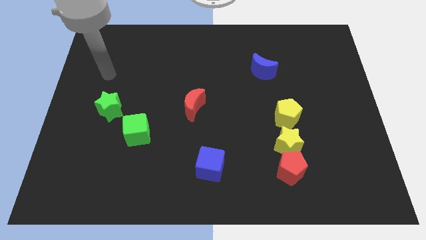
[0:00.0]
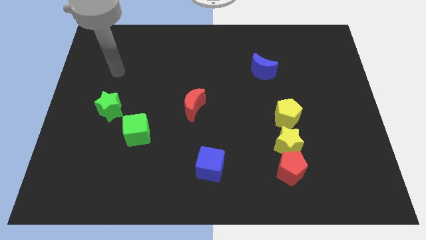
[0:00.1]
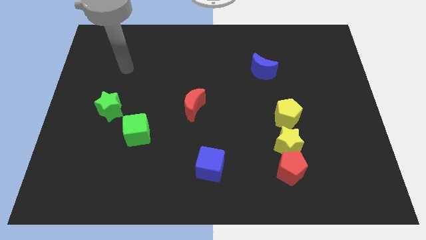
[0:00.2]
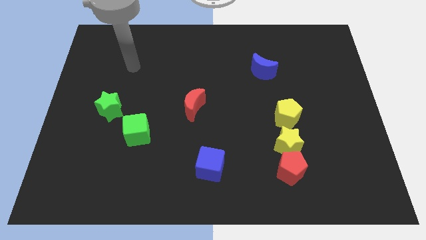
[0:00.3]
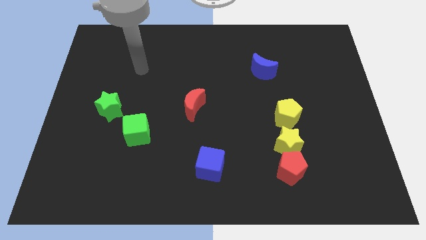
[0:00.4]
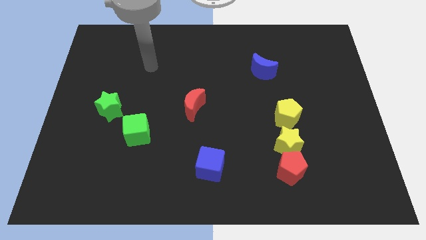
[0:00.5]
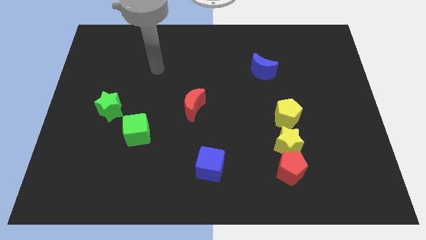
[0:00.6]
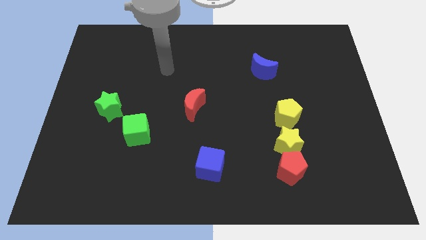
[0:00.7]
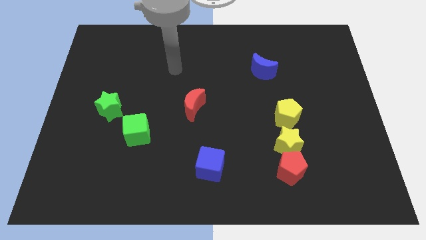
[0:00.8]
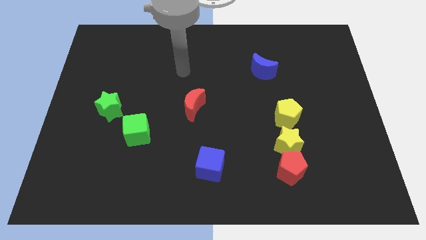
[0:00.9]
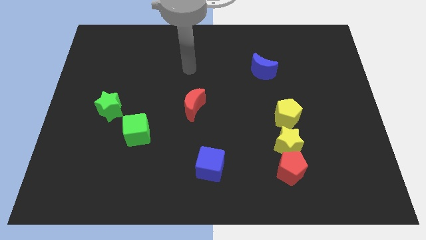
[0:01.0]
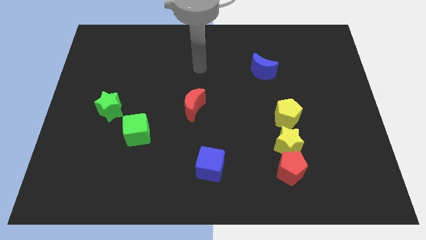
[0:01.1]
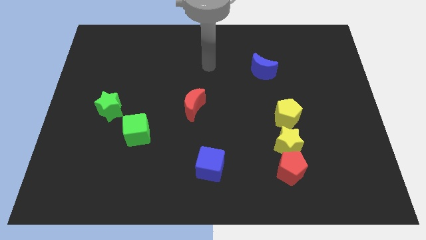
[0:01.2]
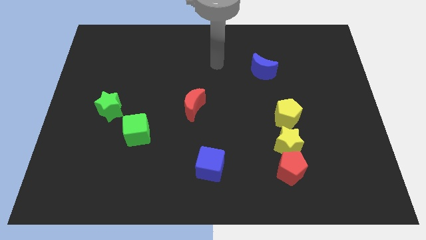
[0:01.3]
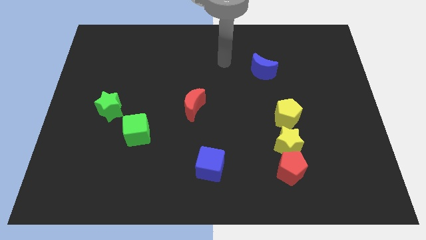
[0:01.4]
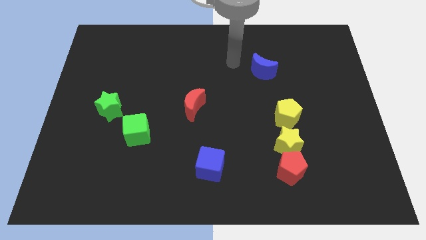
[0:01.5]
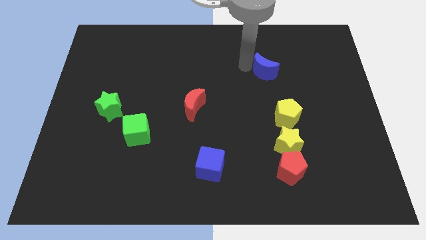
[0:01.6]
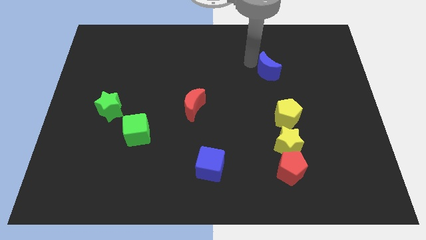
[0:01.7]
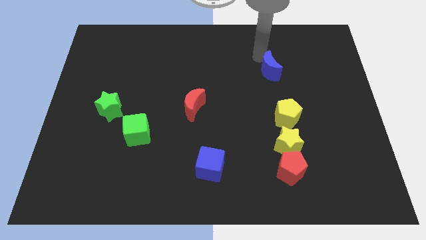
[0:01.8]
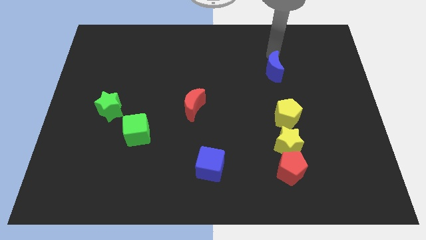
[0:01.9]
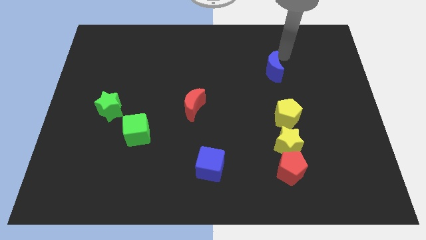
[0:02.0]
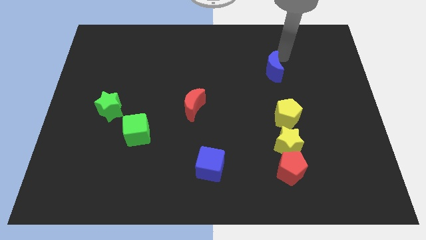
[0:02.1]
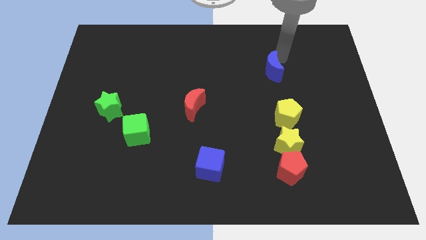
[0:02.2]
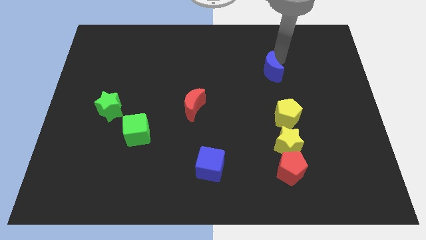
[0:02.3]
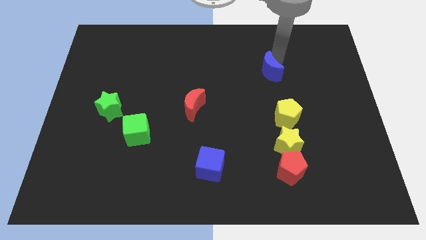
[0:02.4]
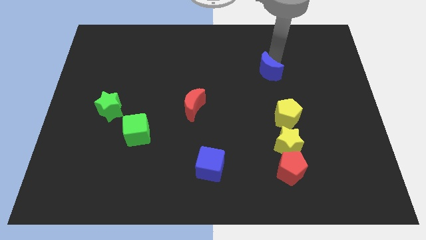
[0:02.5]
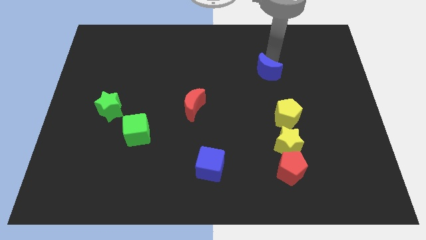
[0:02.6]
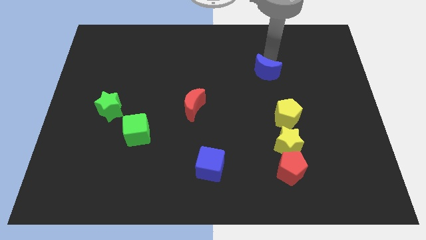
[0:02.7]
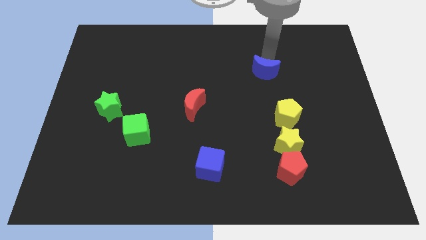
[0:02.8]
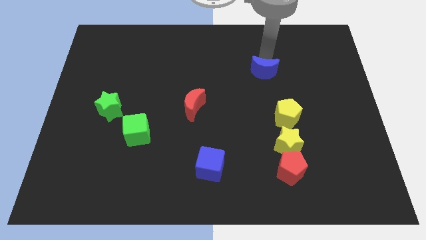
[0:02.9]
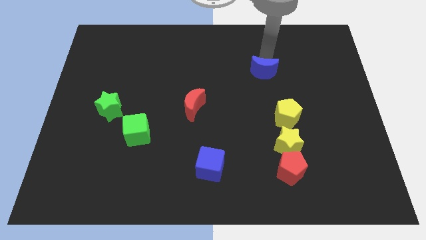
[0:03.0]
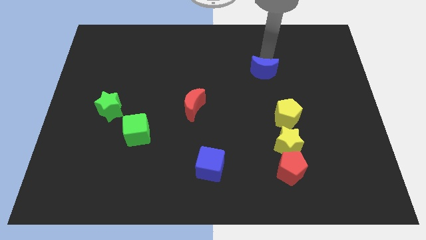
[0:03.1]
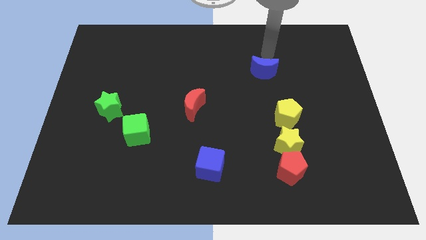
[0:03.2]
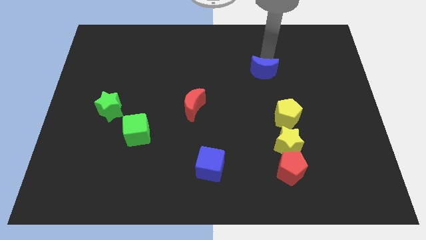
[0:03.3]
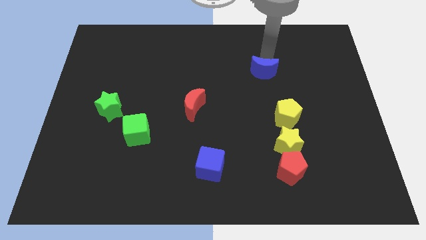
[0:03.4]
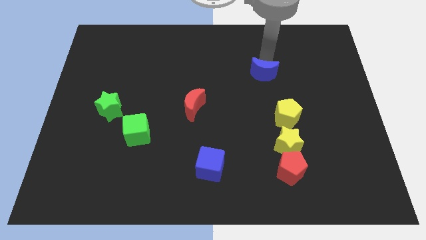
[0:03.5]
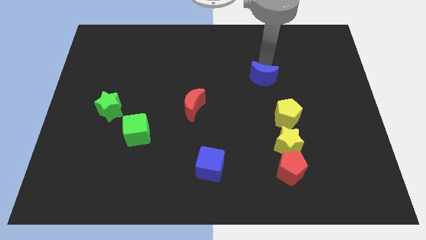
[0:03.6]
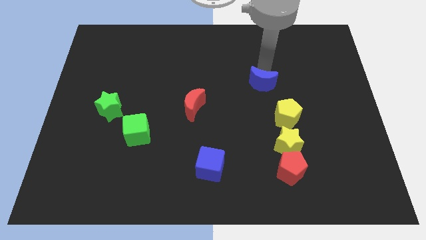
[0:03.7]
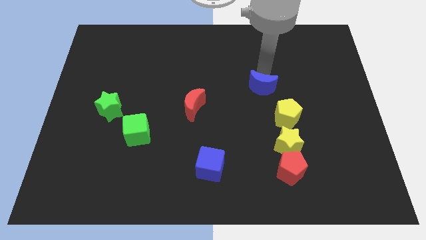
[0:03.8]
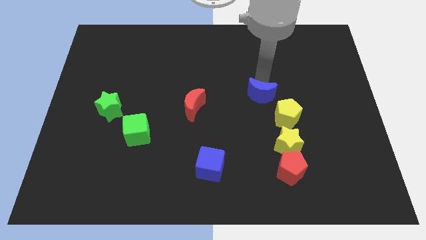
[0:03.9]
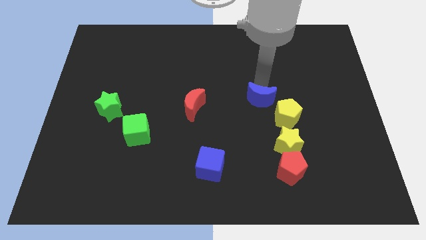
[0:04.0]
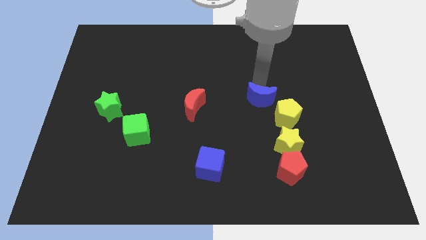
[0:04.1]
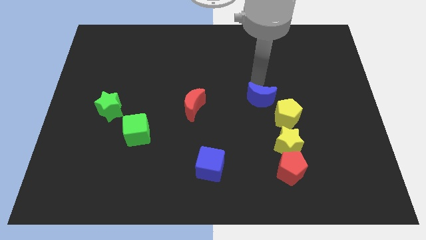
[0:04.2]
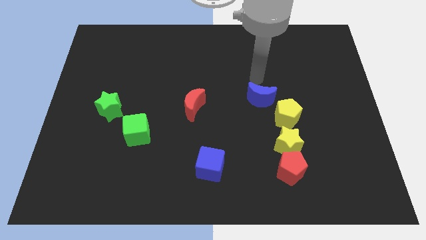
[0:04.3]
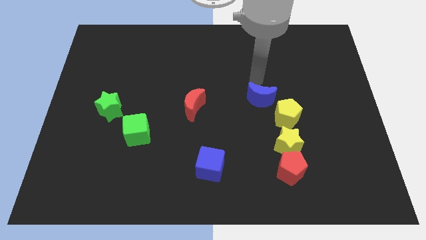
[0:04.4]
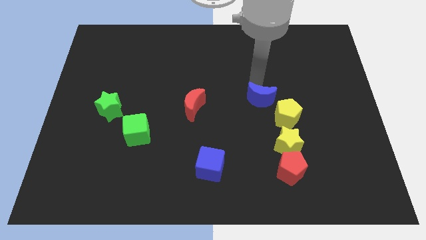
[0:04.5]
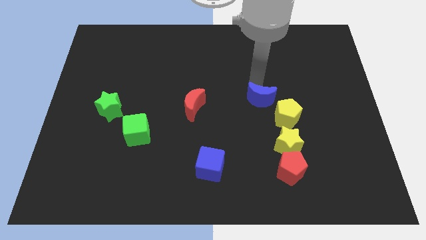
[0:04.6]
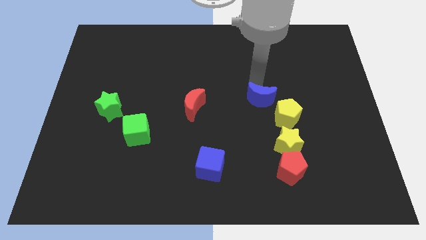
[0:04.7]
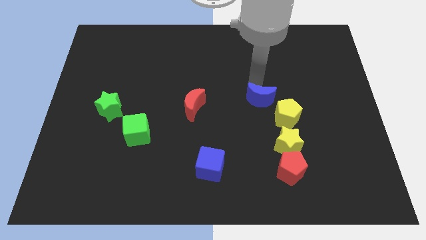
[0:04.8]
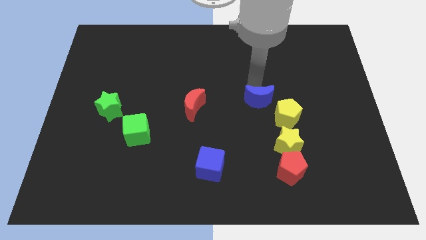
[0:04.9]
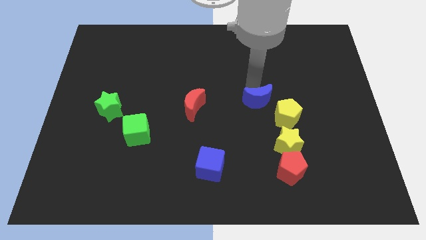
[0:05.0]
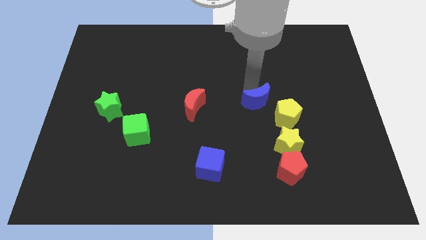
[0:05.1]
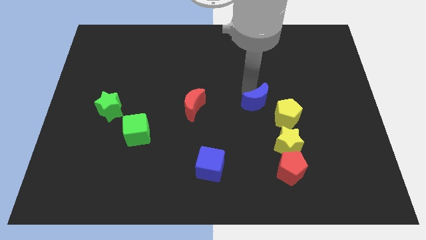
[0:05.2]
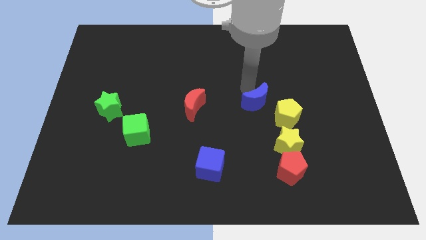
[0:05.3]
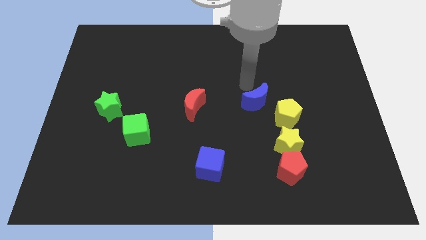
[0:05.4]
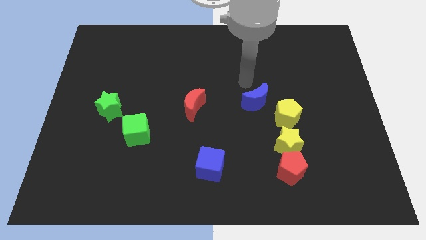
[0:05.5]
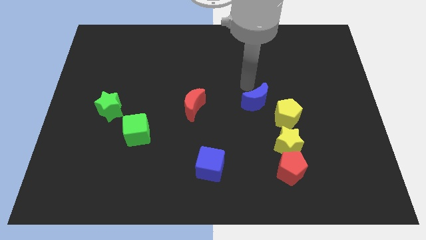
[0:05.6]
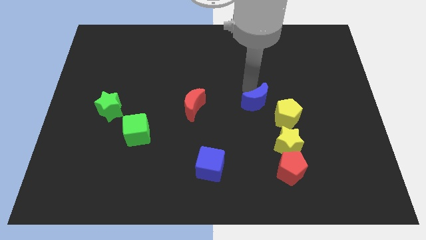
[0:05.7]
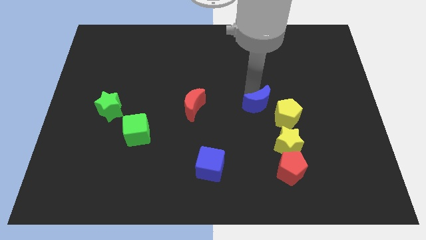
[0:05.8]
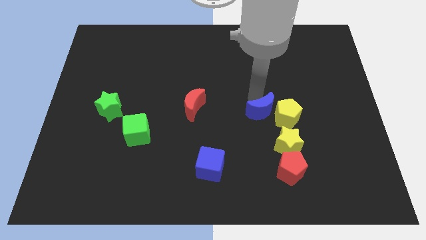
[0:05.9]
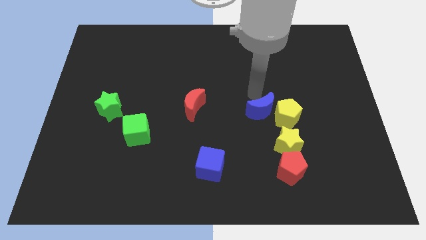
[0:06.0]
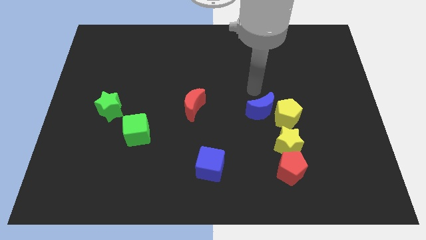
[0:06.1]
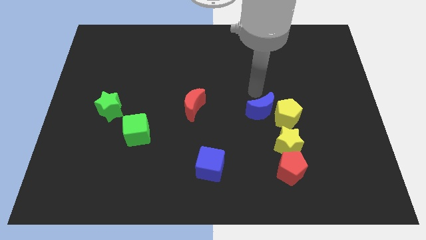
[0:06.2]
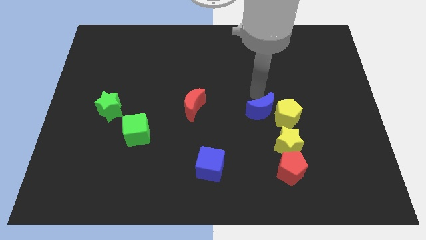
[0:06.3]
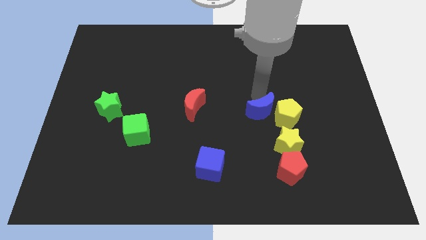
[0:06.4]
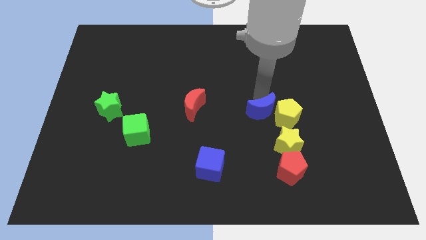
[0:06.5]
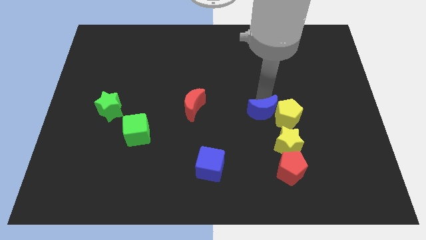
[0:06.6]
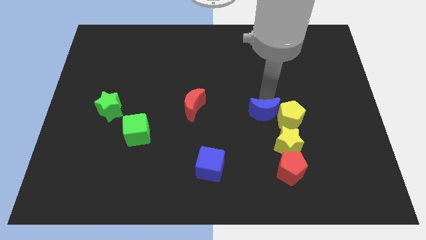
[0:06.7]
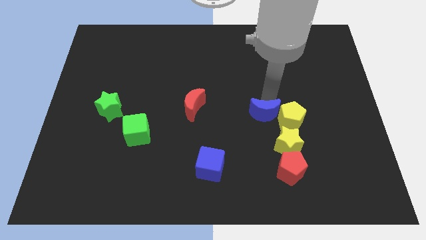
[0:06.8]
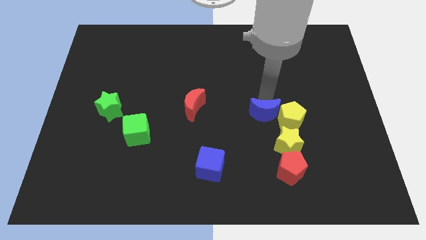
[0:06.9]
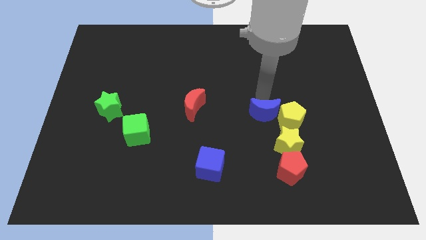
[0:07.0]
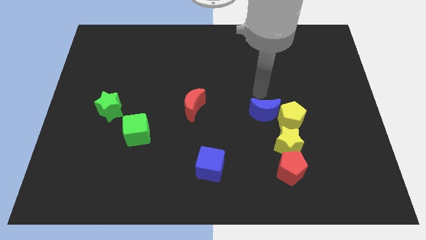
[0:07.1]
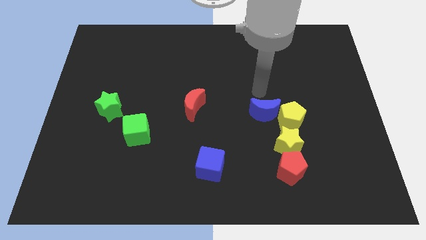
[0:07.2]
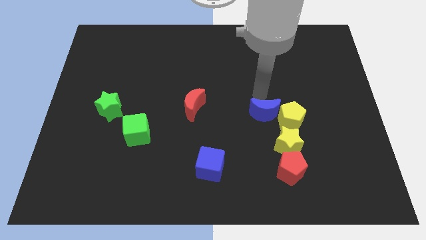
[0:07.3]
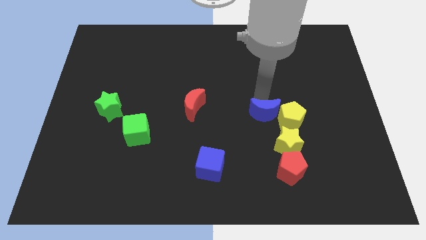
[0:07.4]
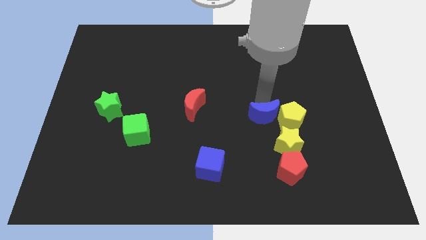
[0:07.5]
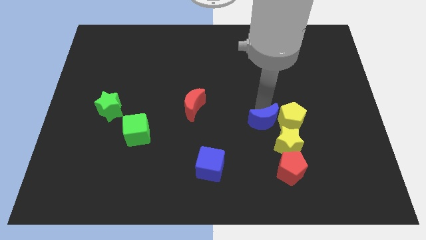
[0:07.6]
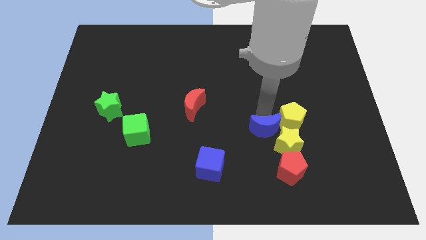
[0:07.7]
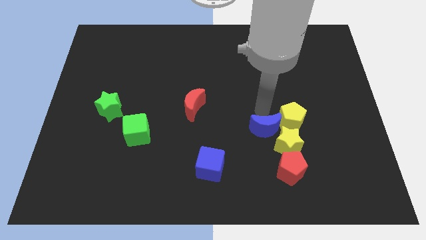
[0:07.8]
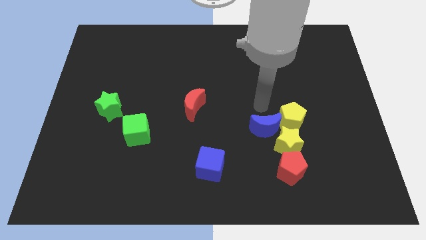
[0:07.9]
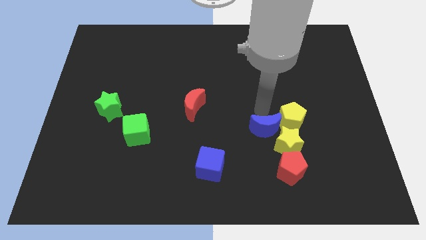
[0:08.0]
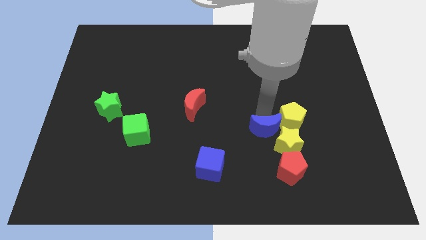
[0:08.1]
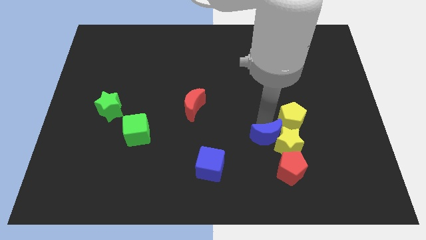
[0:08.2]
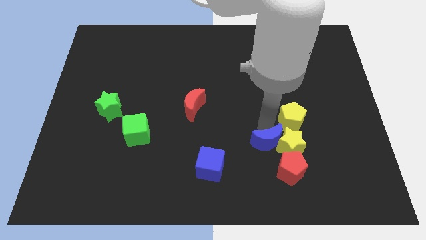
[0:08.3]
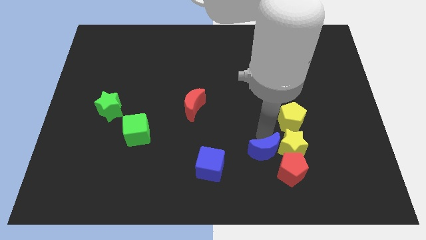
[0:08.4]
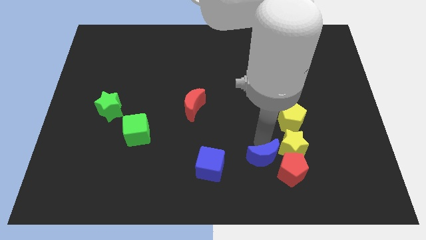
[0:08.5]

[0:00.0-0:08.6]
put the blue moon next to the red pentagon
